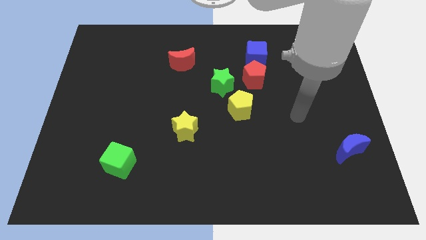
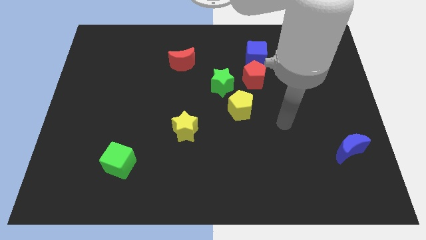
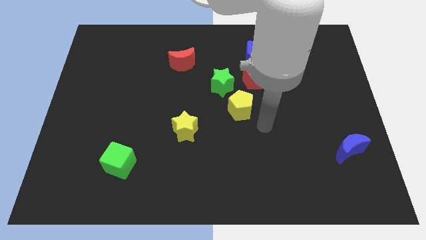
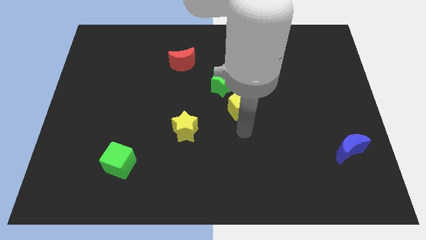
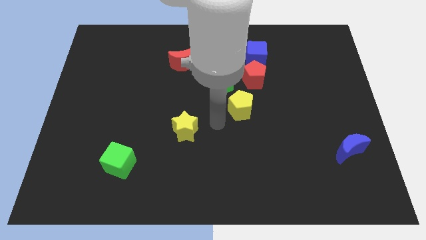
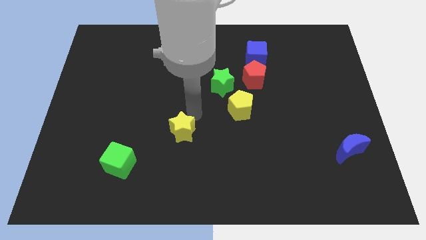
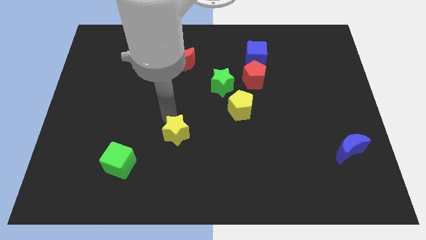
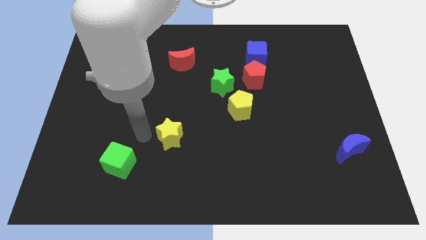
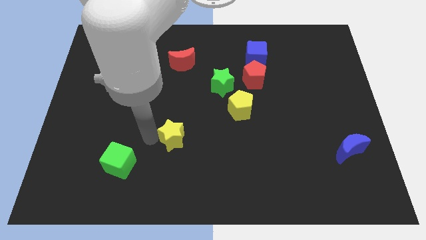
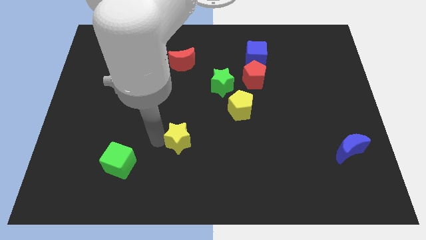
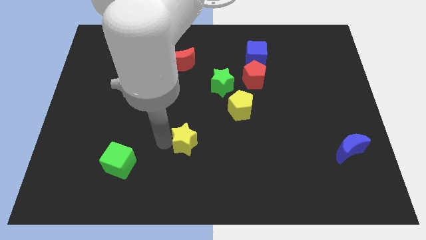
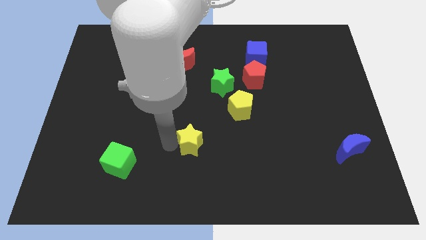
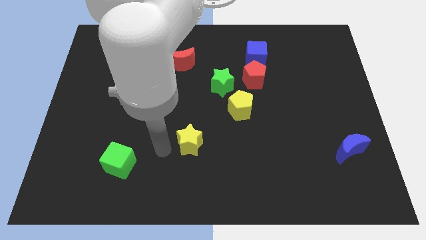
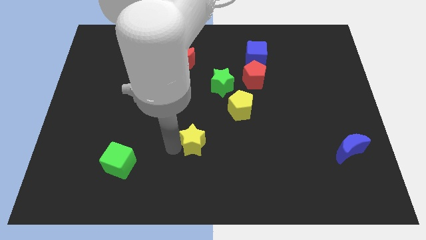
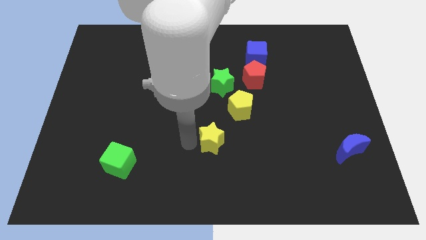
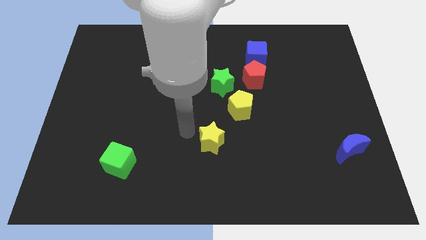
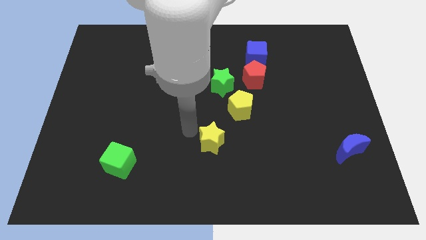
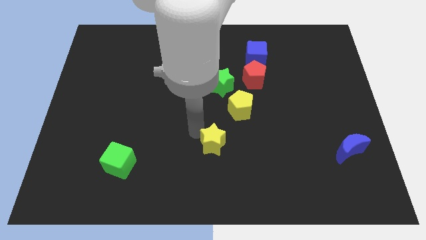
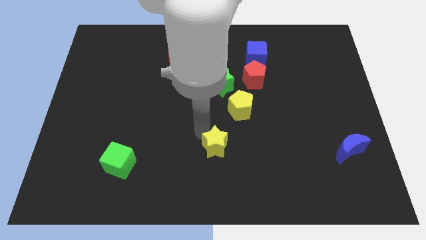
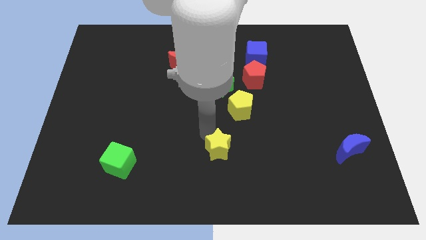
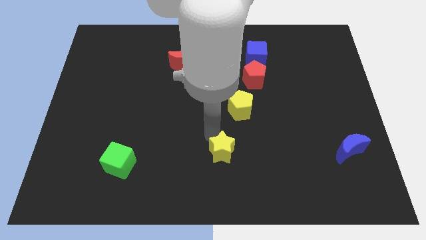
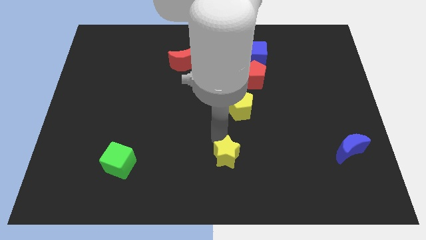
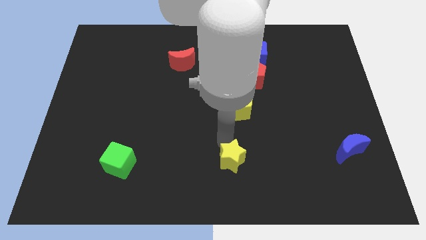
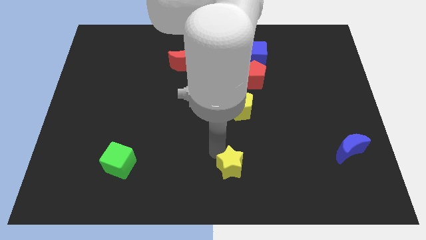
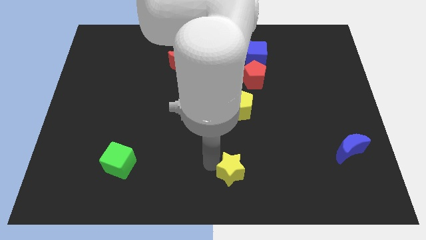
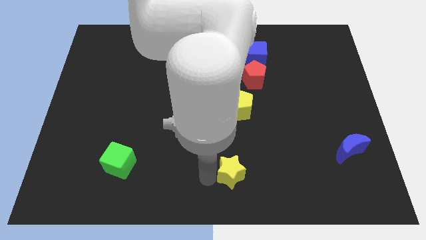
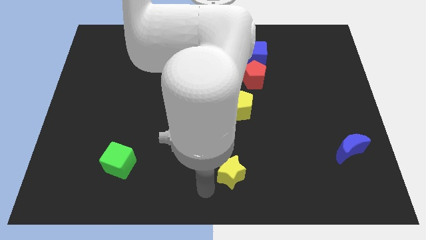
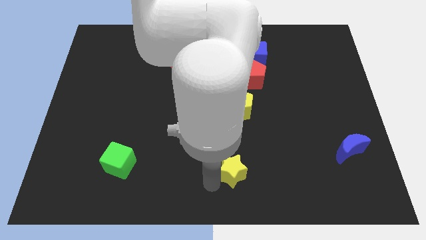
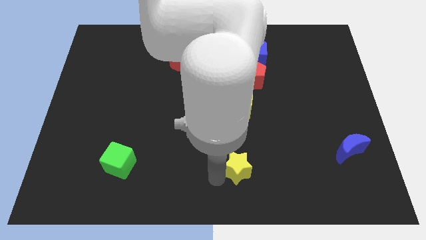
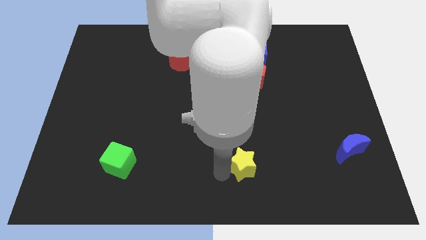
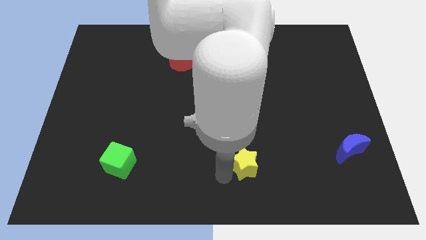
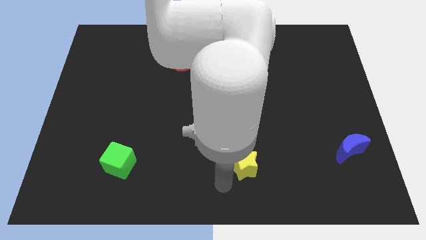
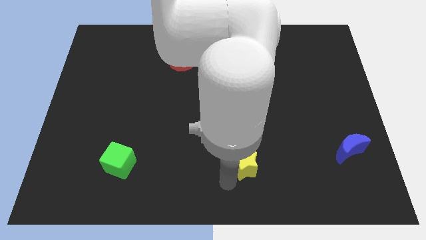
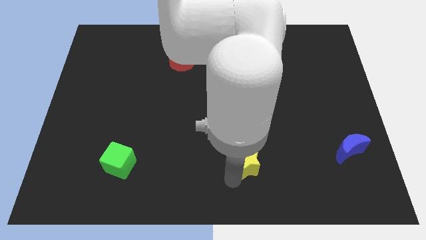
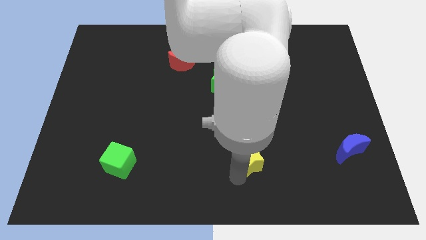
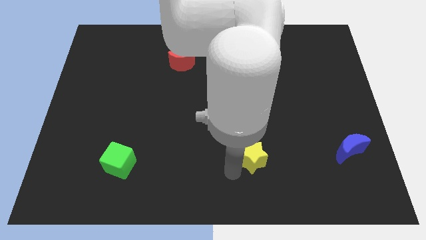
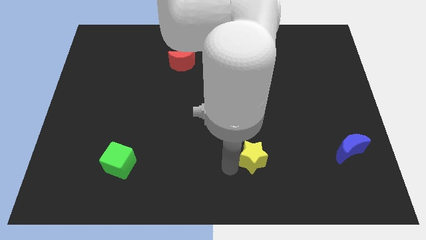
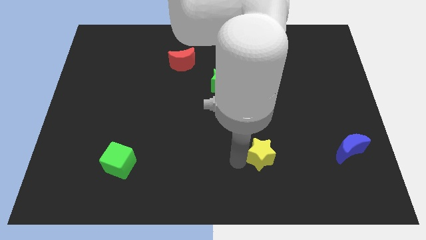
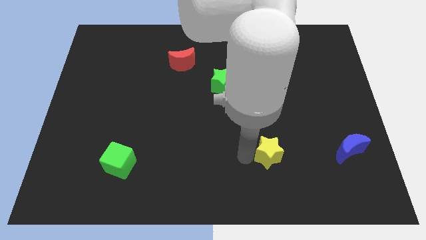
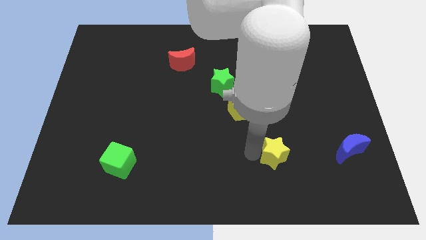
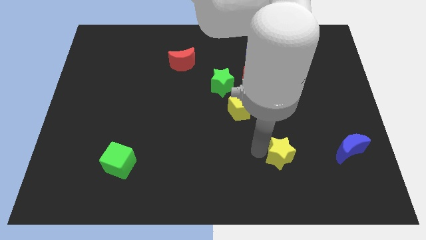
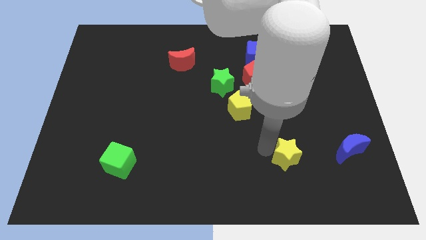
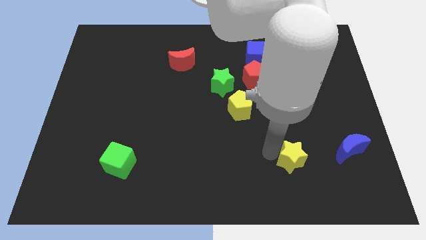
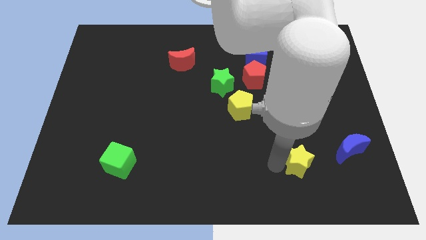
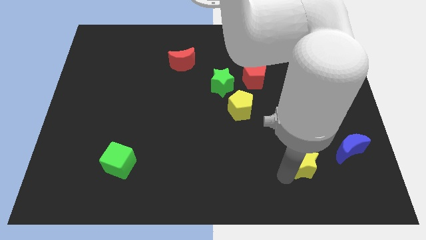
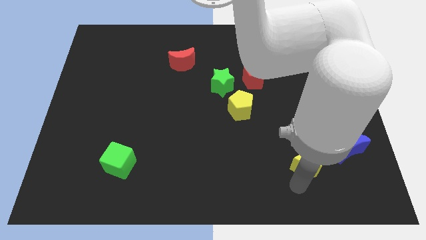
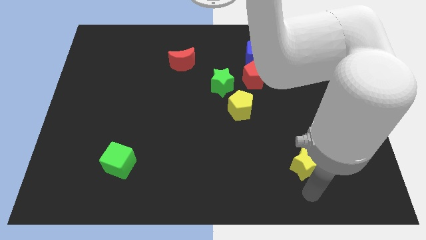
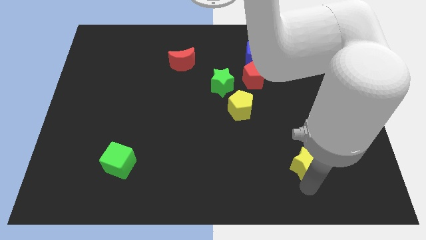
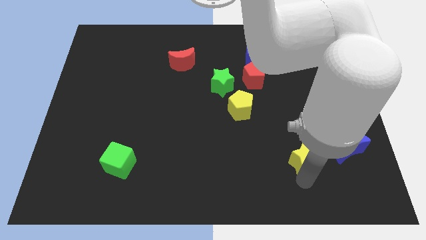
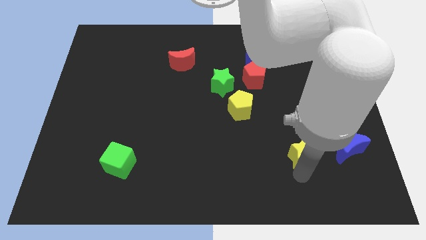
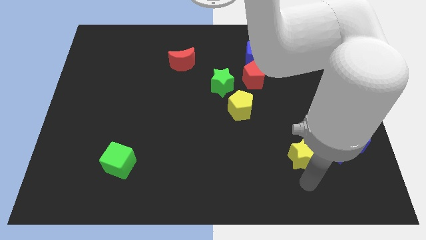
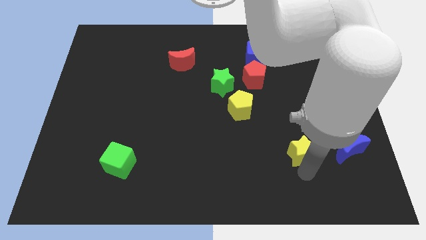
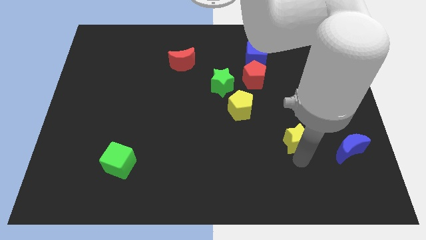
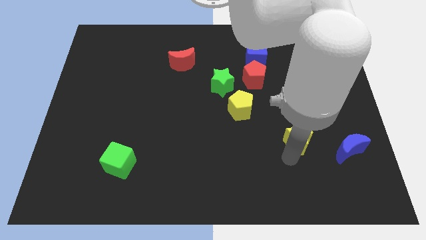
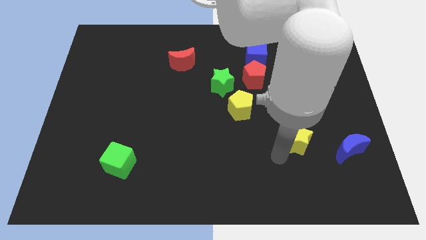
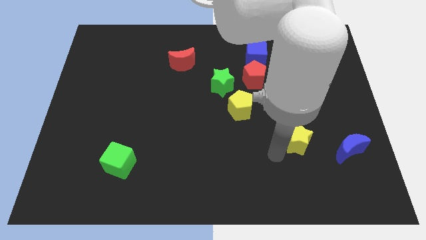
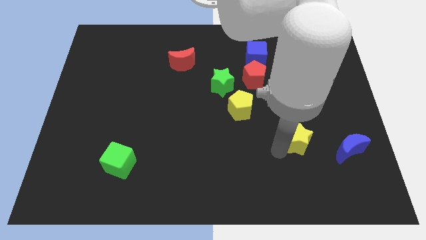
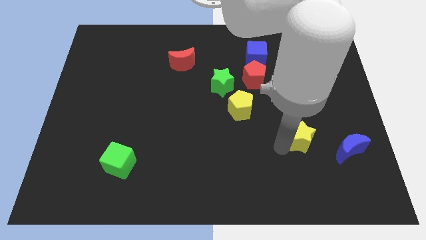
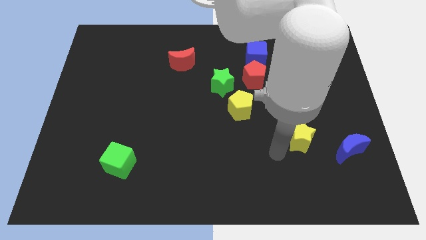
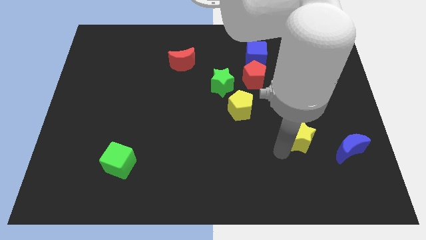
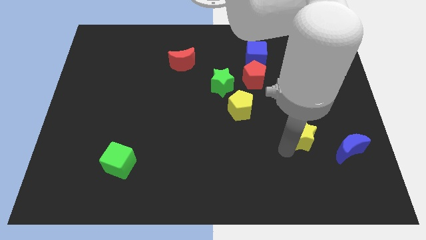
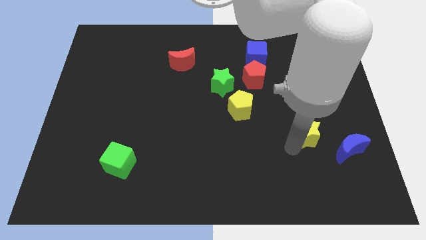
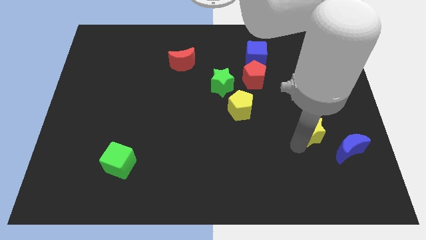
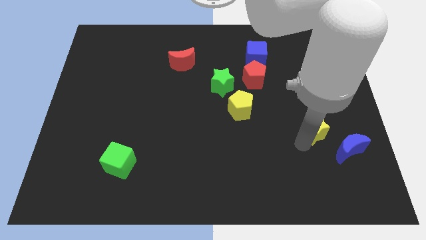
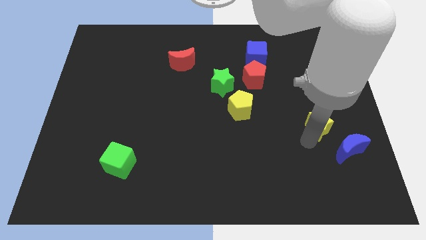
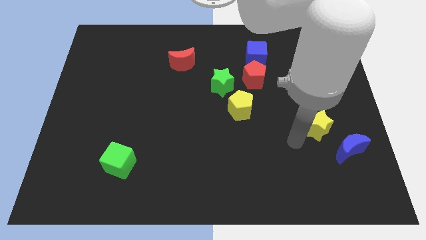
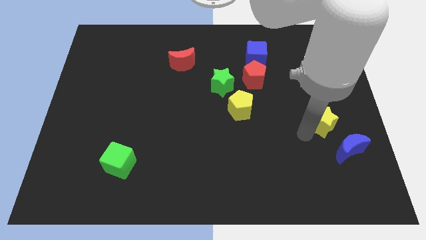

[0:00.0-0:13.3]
move the yellow star to the top of the blue moon
